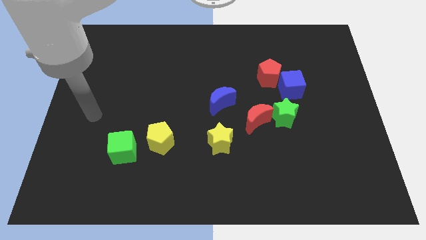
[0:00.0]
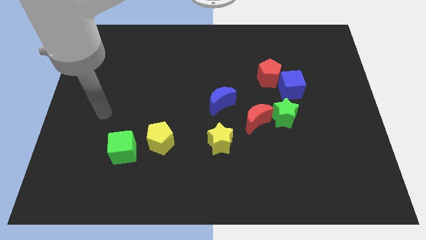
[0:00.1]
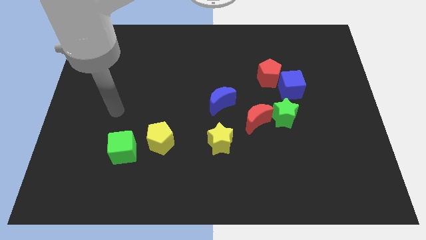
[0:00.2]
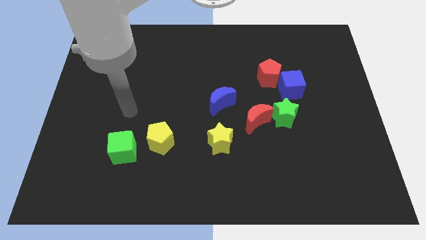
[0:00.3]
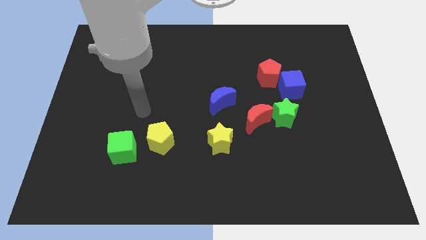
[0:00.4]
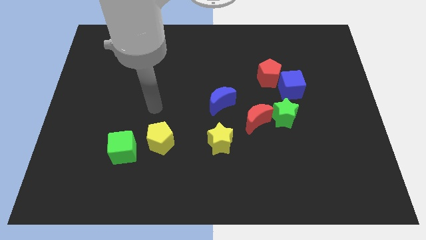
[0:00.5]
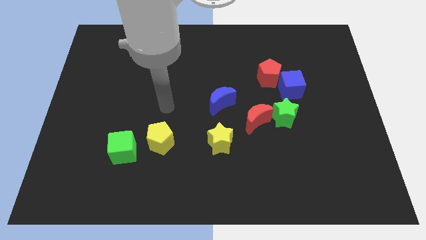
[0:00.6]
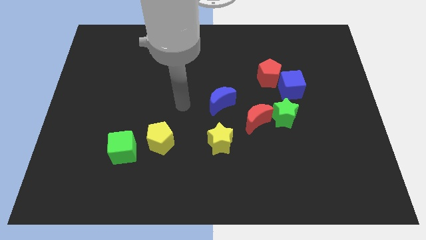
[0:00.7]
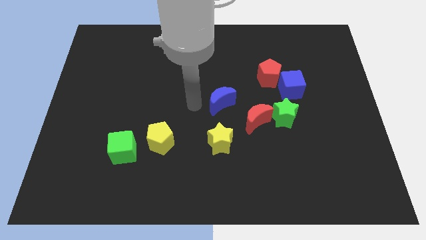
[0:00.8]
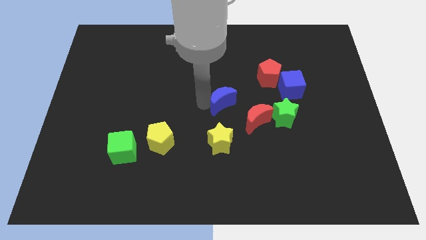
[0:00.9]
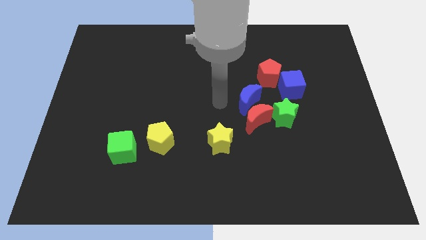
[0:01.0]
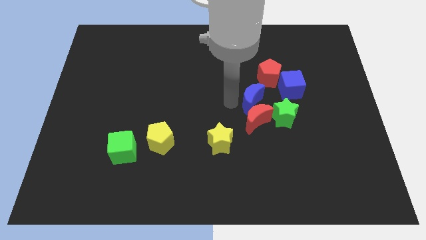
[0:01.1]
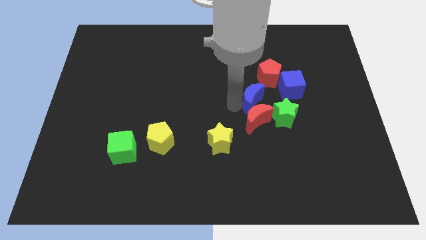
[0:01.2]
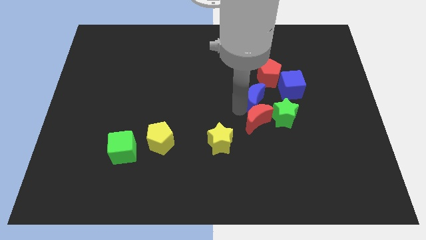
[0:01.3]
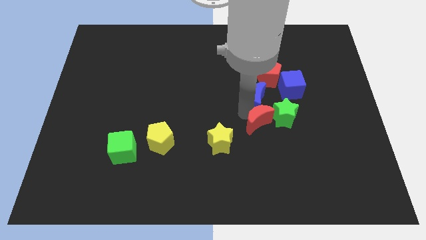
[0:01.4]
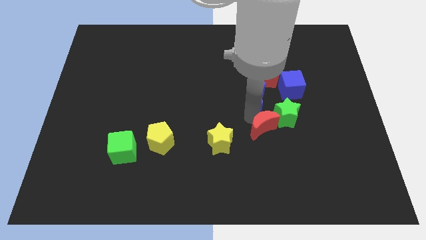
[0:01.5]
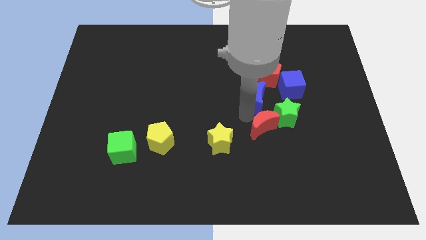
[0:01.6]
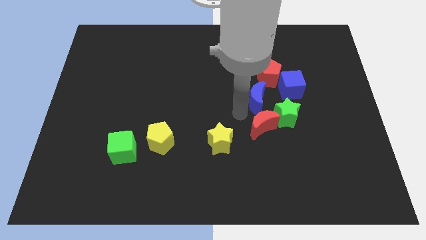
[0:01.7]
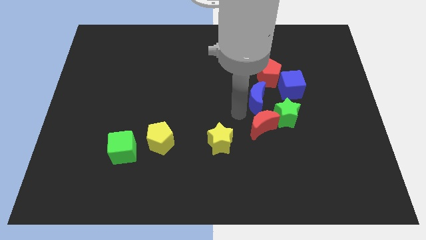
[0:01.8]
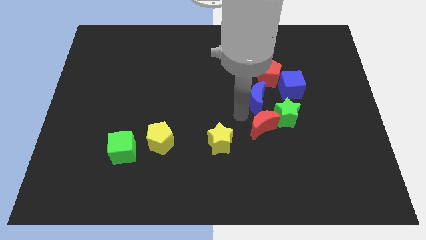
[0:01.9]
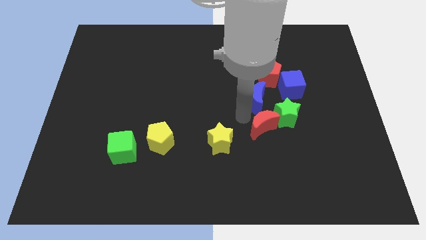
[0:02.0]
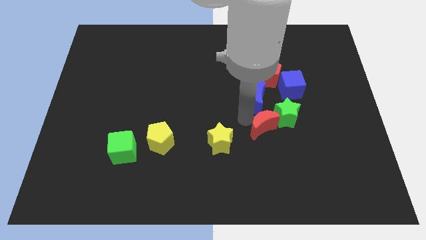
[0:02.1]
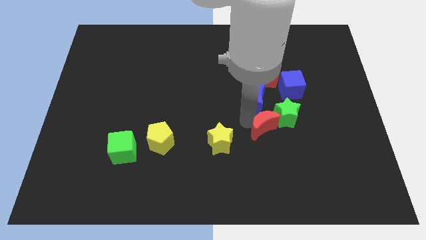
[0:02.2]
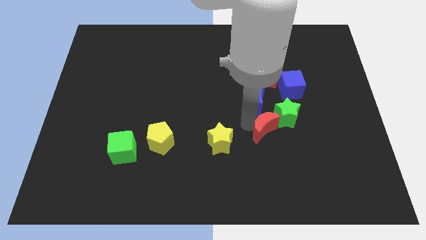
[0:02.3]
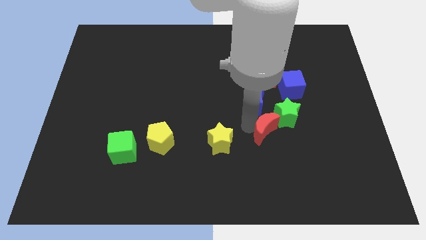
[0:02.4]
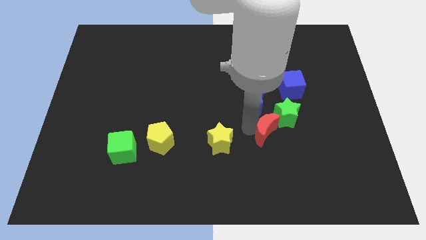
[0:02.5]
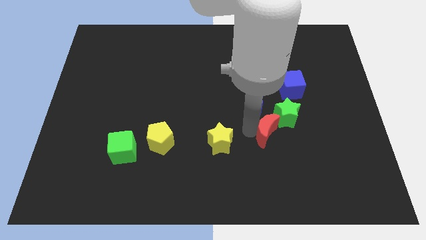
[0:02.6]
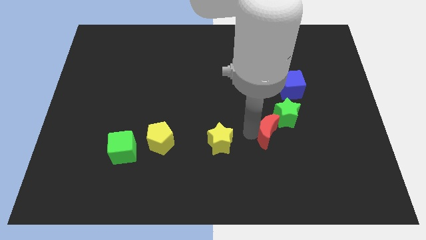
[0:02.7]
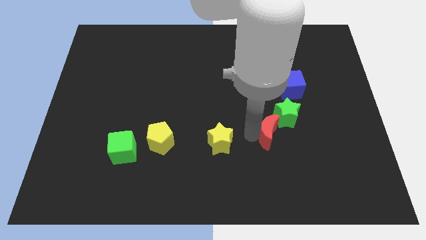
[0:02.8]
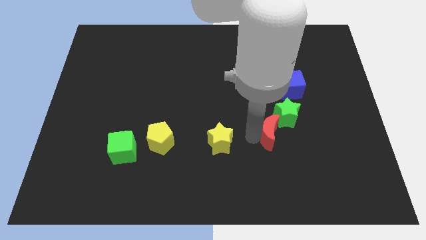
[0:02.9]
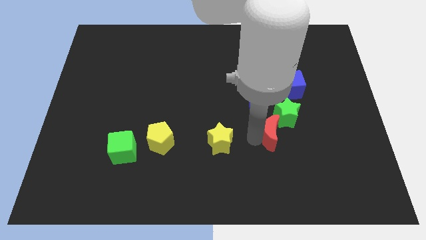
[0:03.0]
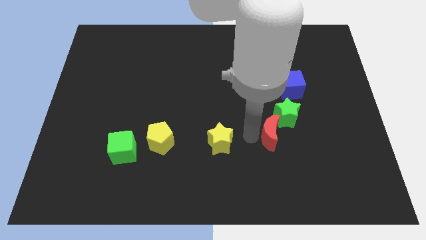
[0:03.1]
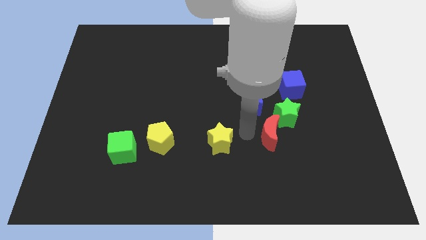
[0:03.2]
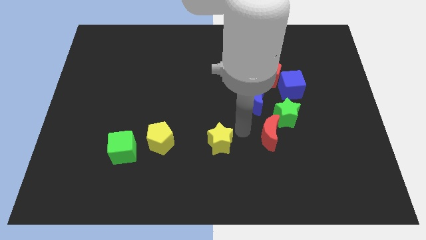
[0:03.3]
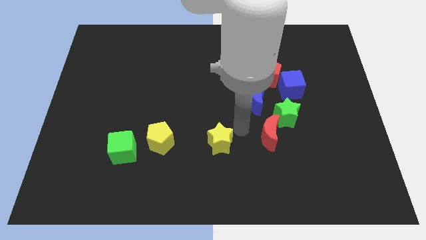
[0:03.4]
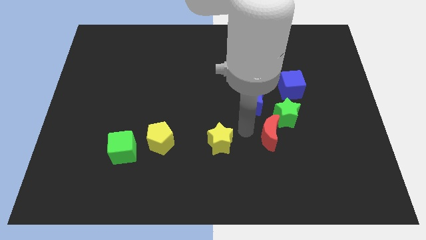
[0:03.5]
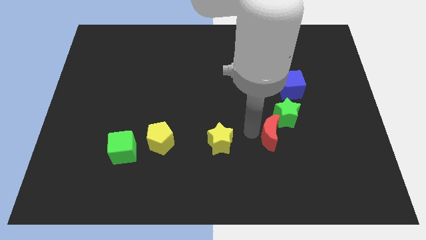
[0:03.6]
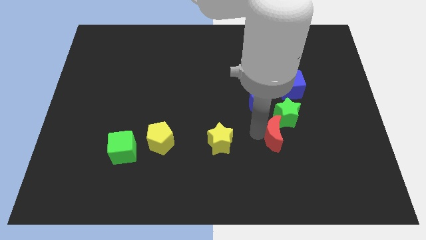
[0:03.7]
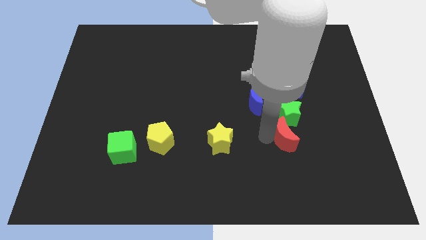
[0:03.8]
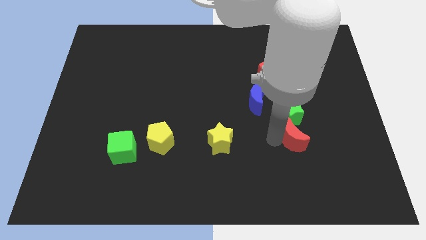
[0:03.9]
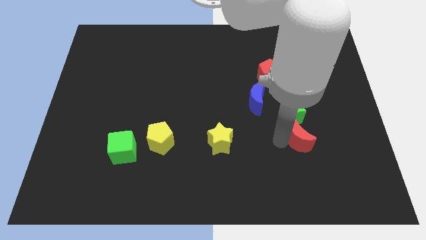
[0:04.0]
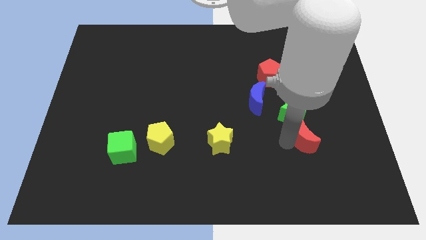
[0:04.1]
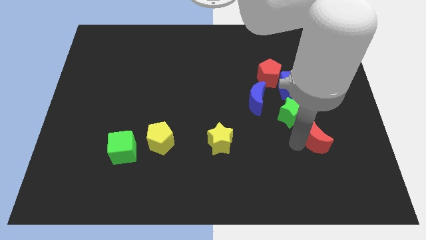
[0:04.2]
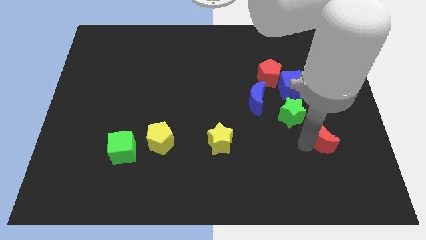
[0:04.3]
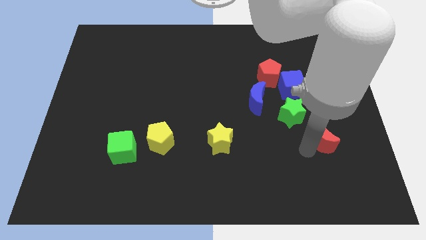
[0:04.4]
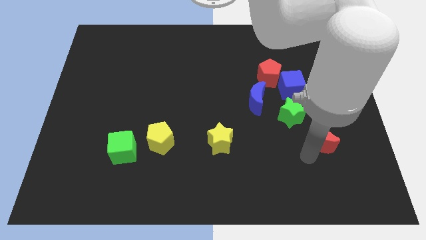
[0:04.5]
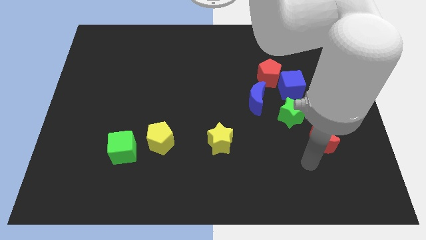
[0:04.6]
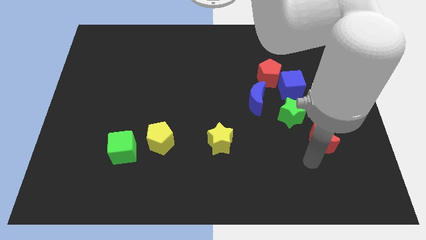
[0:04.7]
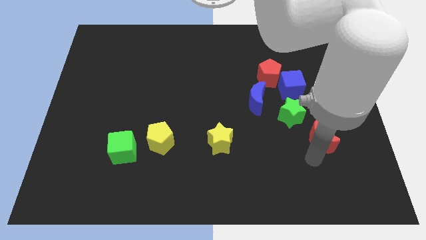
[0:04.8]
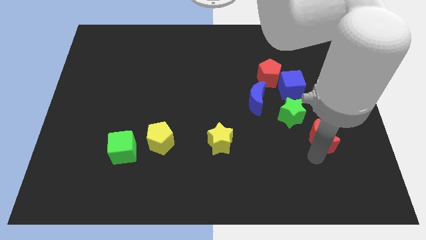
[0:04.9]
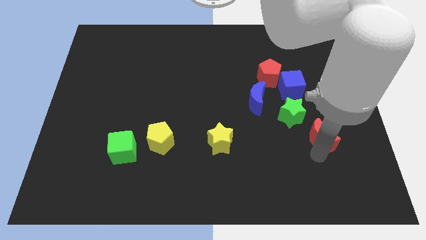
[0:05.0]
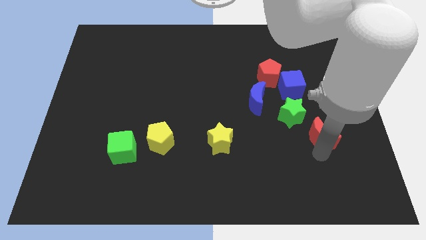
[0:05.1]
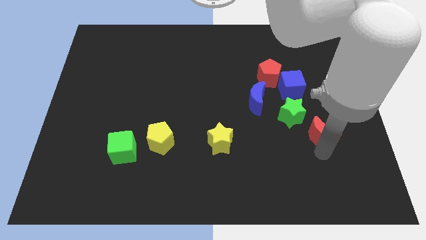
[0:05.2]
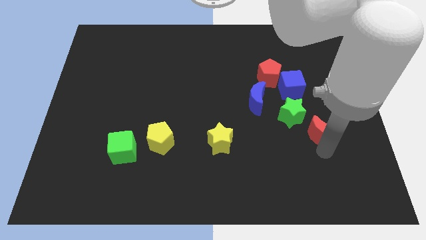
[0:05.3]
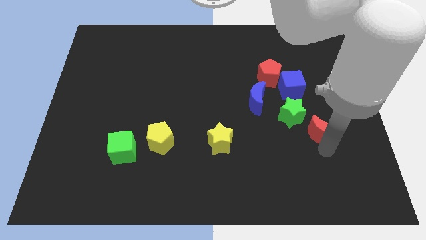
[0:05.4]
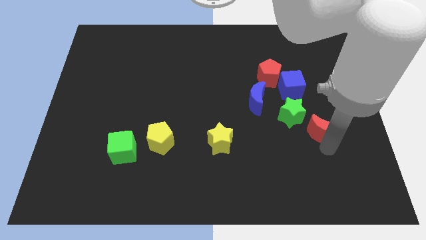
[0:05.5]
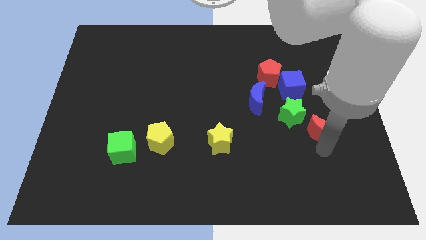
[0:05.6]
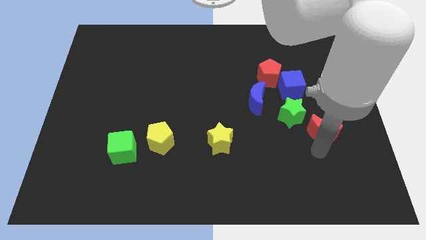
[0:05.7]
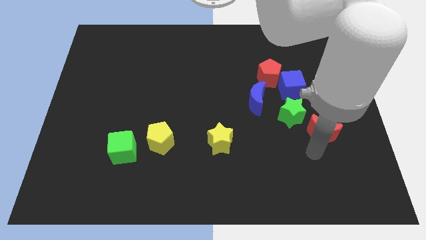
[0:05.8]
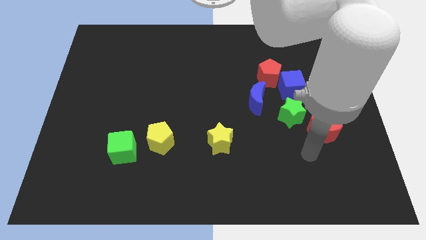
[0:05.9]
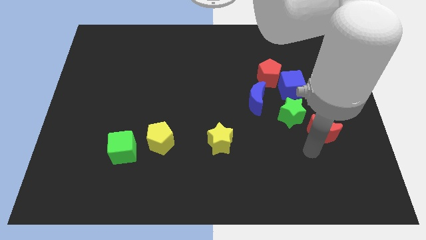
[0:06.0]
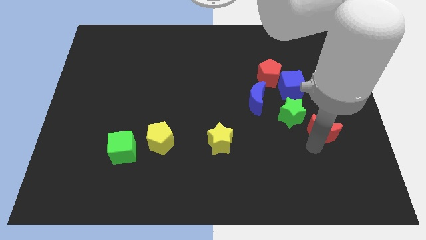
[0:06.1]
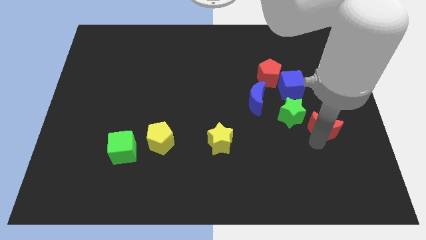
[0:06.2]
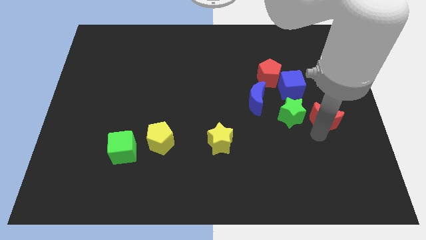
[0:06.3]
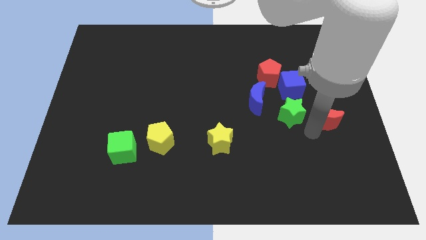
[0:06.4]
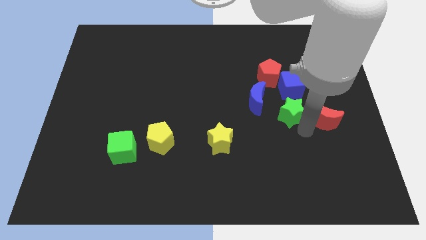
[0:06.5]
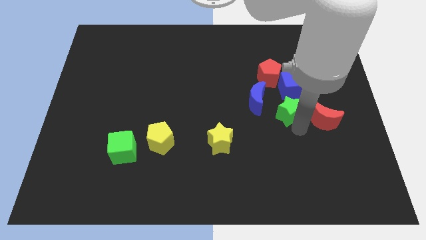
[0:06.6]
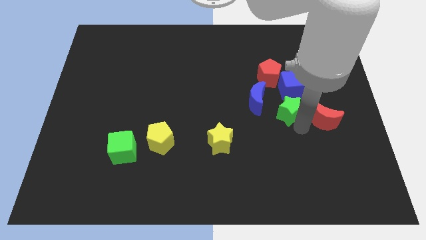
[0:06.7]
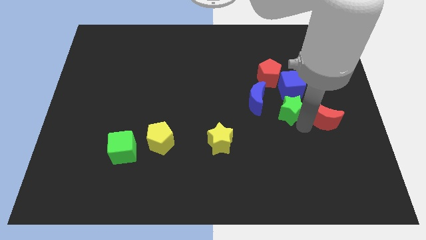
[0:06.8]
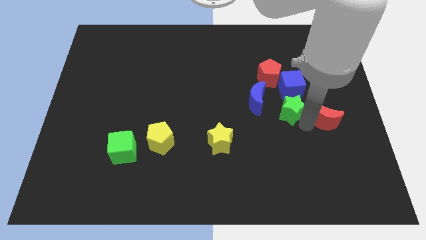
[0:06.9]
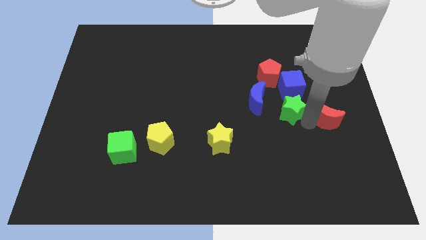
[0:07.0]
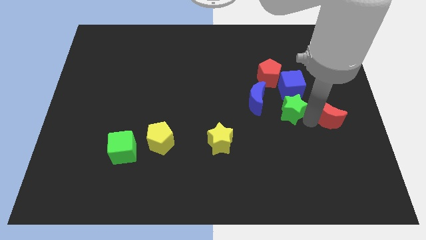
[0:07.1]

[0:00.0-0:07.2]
move the red moon to the right side
